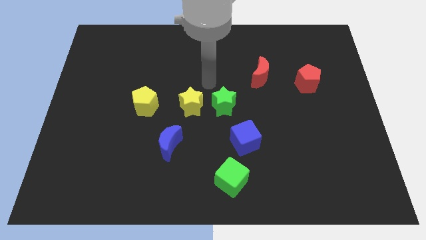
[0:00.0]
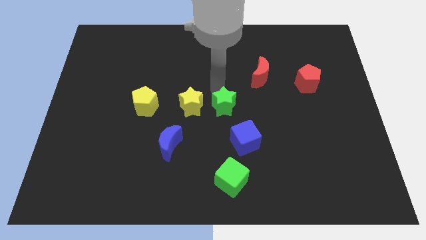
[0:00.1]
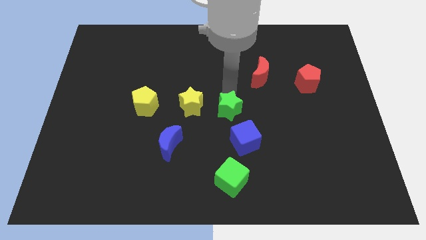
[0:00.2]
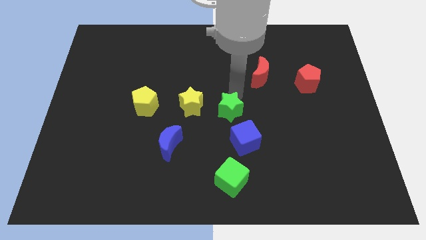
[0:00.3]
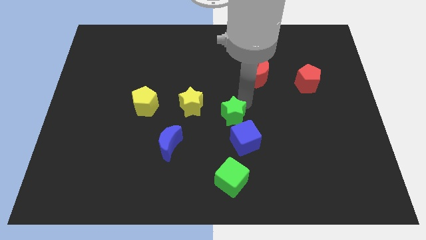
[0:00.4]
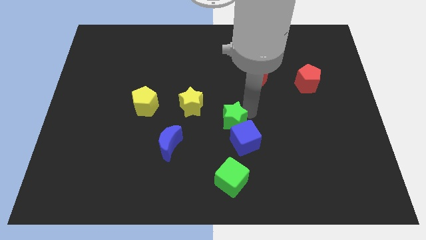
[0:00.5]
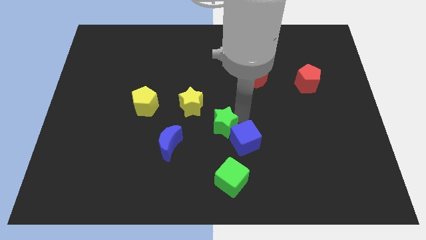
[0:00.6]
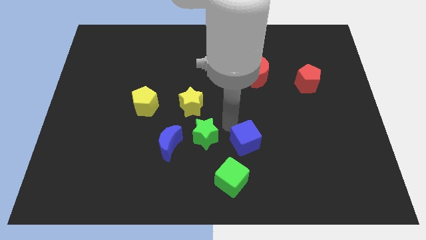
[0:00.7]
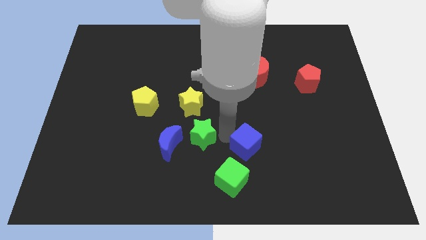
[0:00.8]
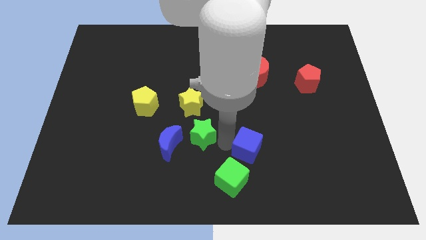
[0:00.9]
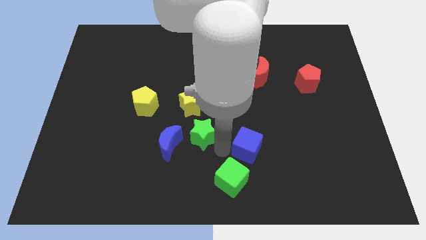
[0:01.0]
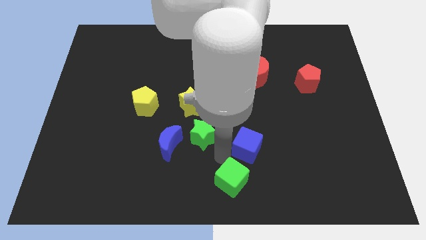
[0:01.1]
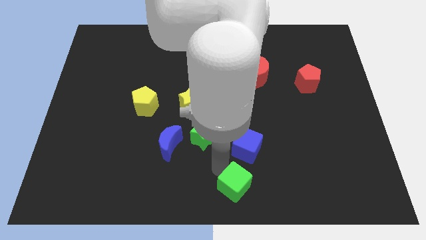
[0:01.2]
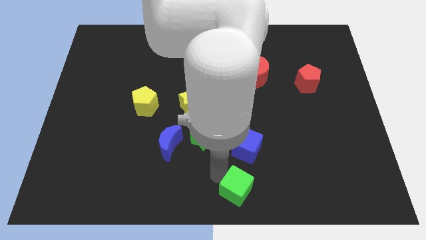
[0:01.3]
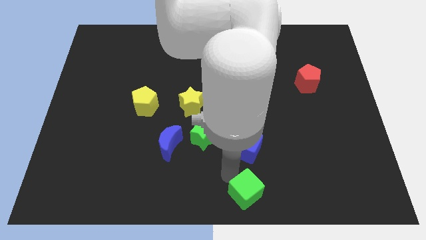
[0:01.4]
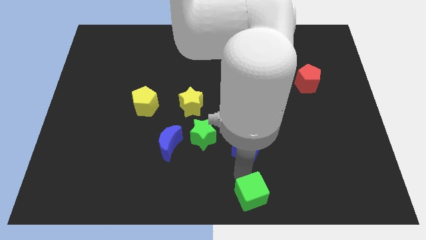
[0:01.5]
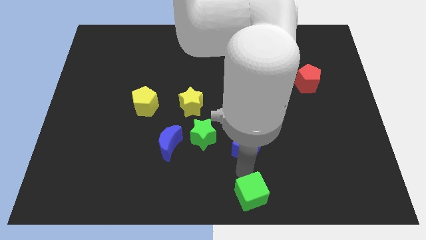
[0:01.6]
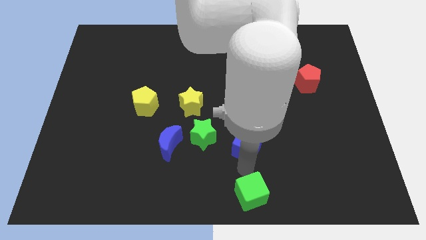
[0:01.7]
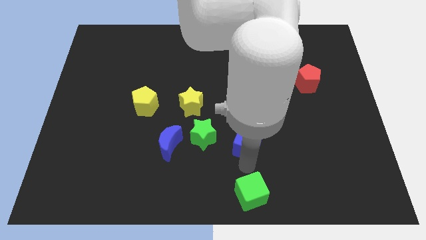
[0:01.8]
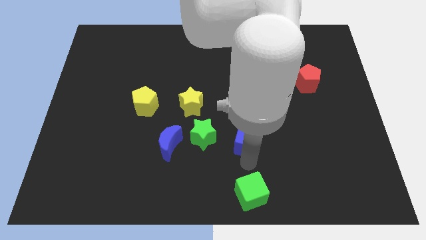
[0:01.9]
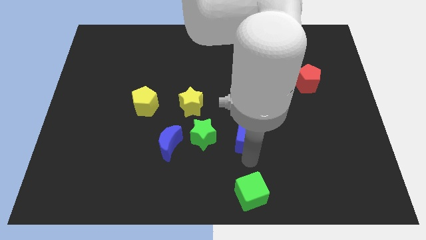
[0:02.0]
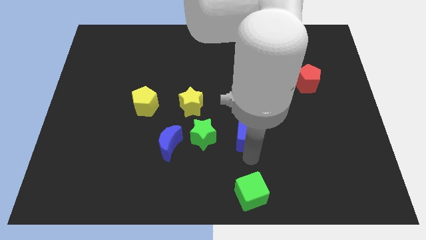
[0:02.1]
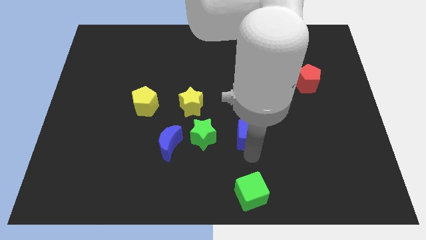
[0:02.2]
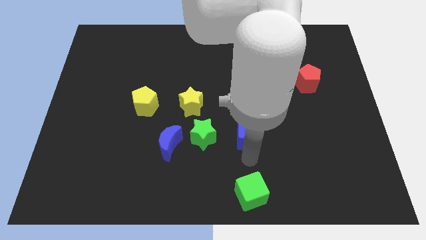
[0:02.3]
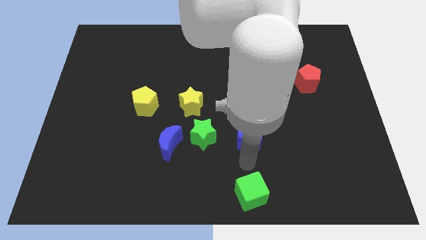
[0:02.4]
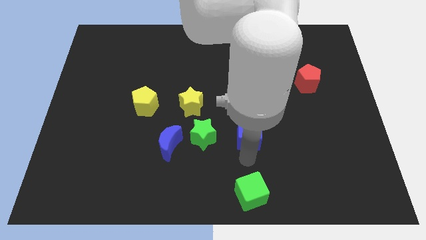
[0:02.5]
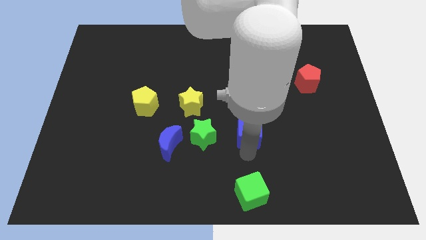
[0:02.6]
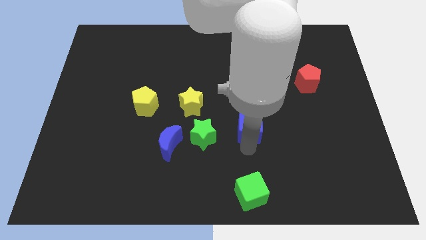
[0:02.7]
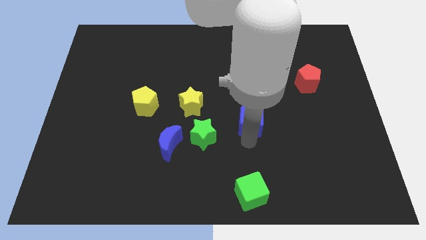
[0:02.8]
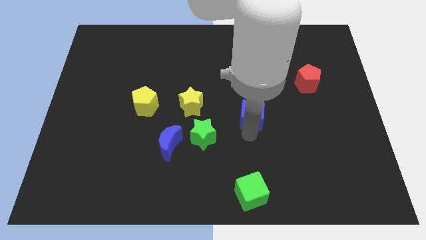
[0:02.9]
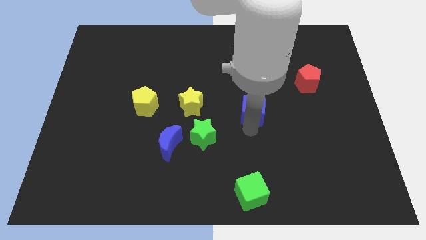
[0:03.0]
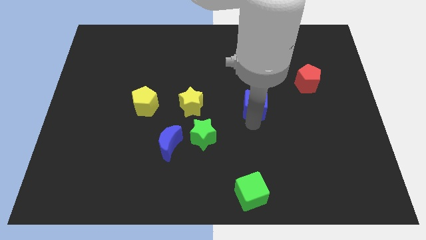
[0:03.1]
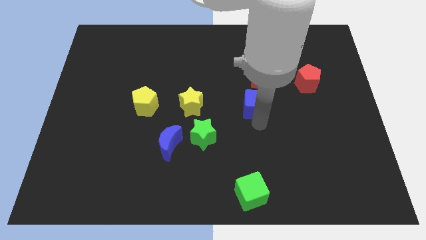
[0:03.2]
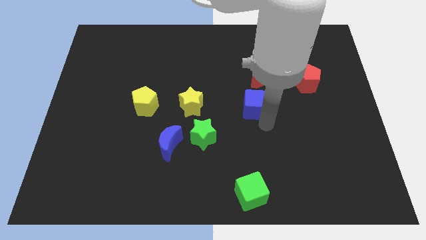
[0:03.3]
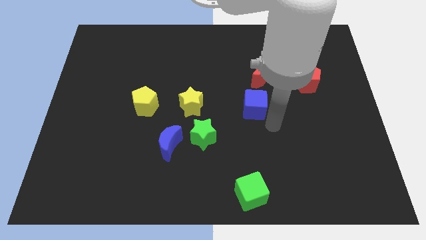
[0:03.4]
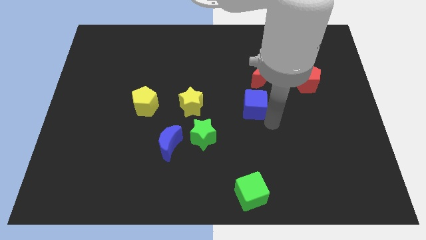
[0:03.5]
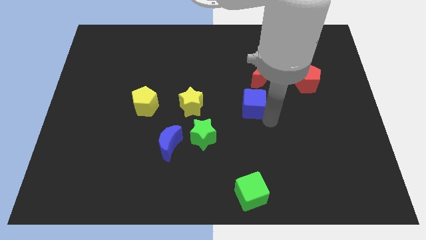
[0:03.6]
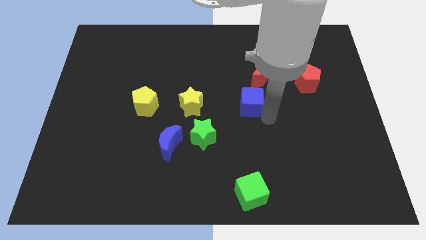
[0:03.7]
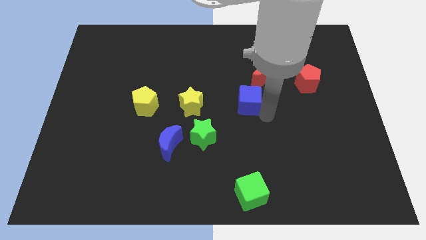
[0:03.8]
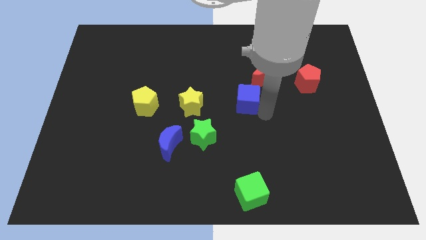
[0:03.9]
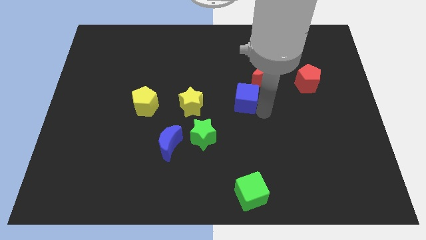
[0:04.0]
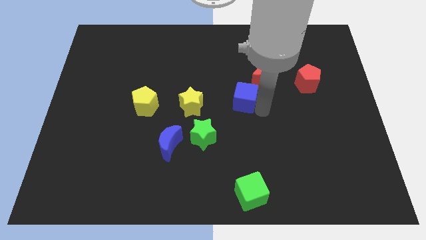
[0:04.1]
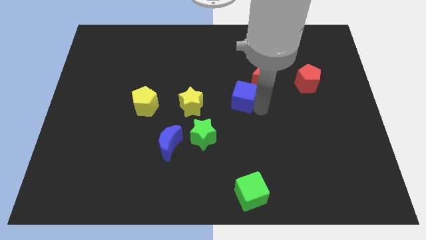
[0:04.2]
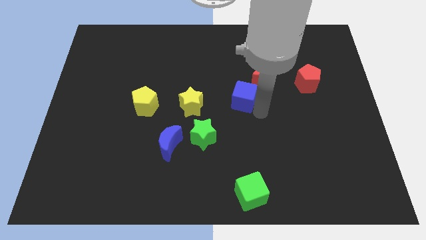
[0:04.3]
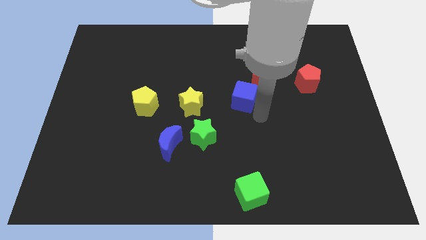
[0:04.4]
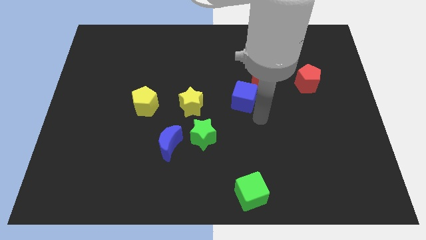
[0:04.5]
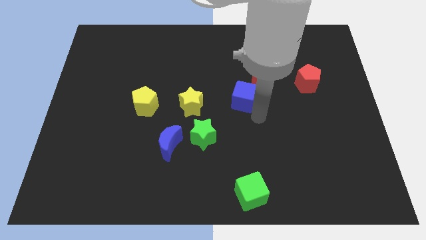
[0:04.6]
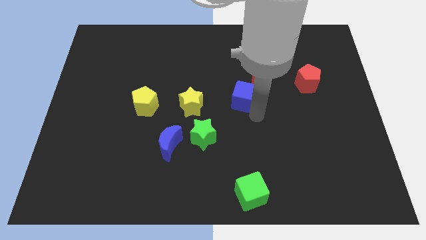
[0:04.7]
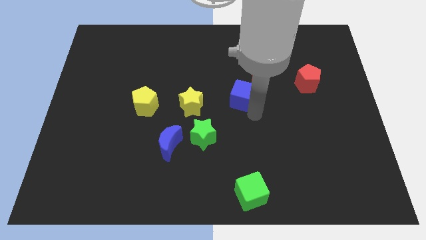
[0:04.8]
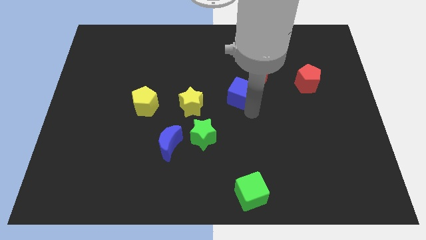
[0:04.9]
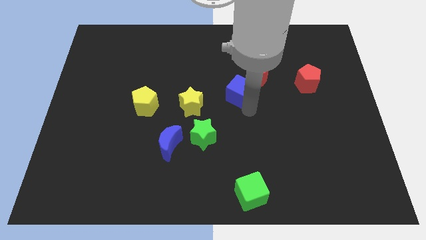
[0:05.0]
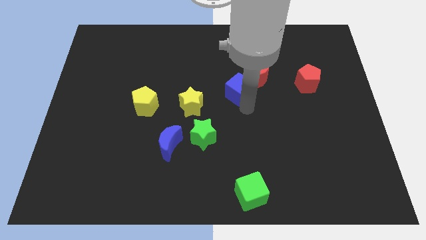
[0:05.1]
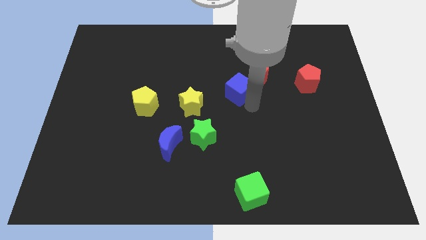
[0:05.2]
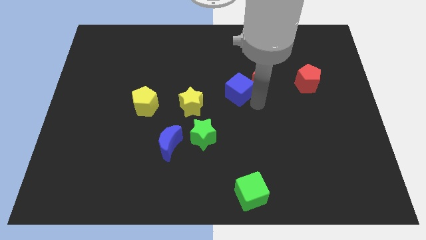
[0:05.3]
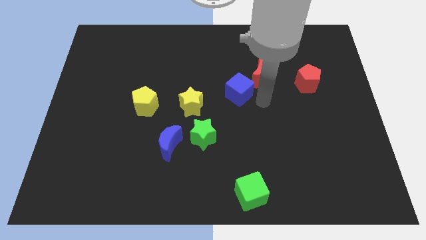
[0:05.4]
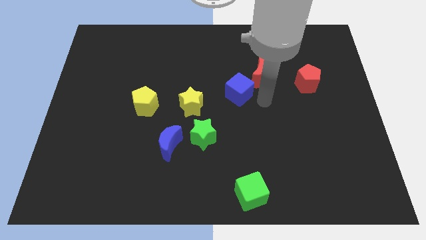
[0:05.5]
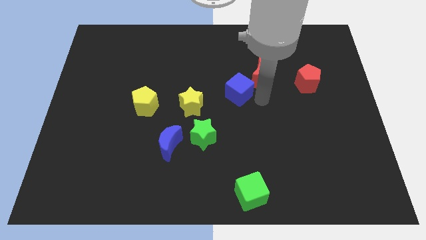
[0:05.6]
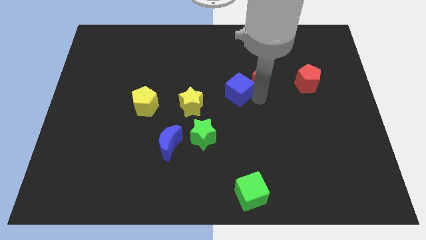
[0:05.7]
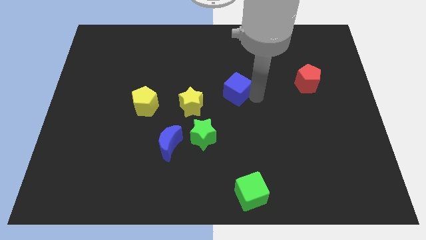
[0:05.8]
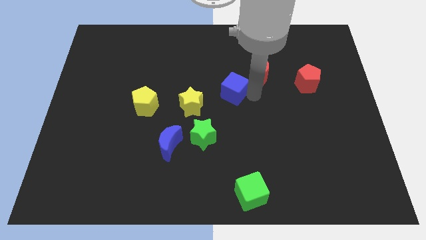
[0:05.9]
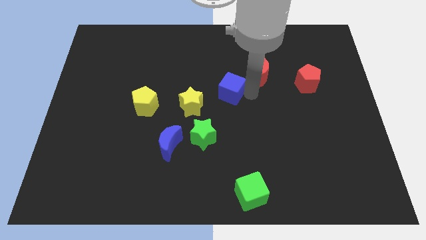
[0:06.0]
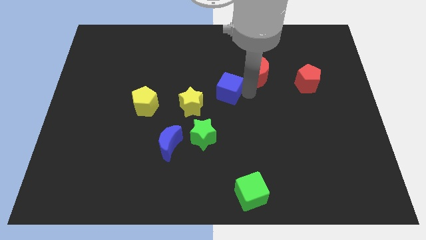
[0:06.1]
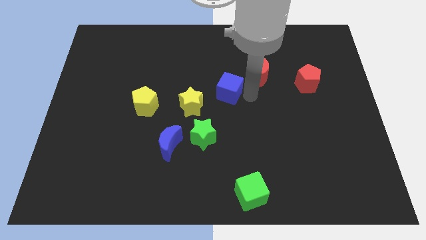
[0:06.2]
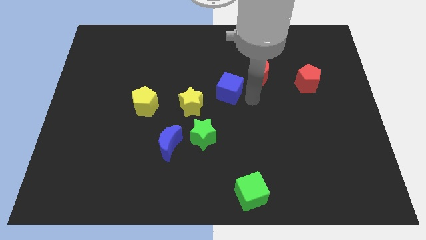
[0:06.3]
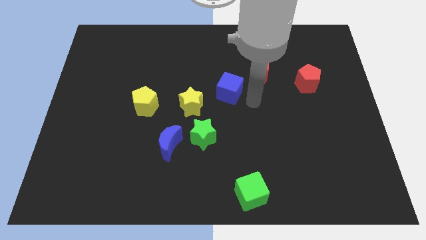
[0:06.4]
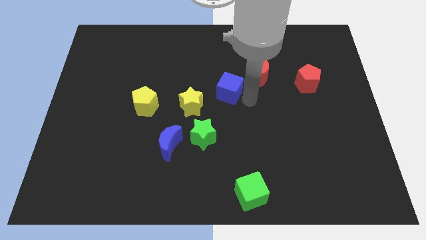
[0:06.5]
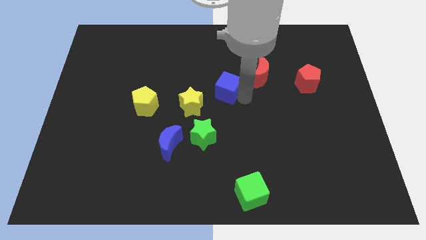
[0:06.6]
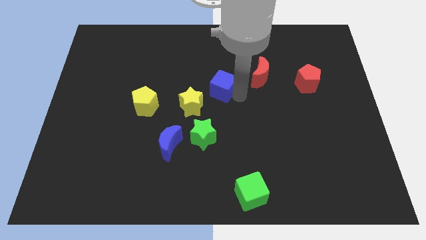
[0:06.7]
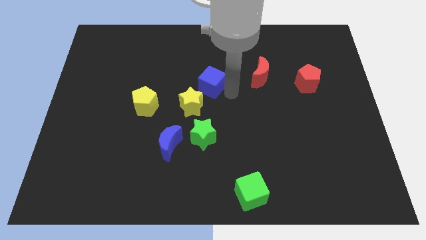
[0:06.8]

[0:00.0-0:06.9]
push the blue cube above the yellow star
